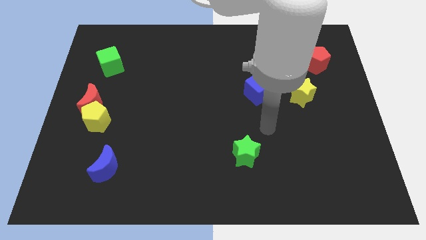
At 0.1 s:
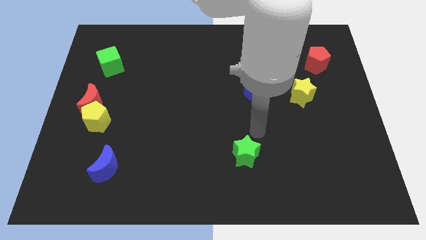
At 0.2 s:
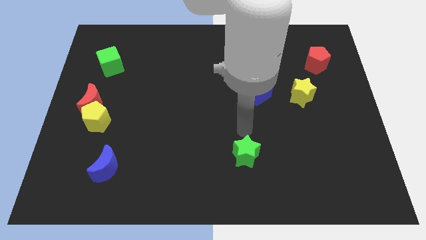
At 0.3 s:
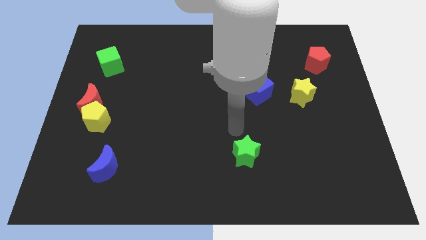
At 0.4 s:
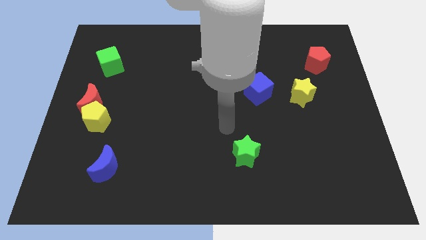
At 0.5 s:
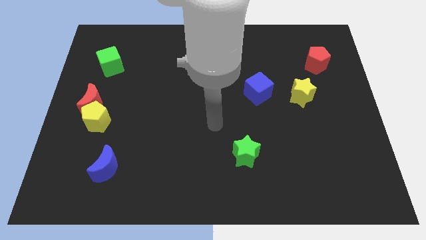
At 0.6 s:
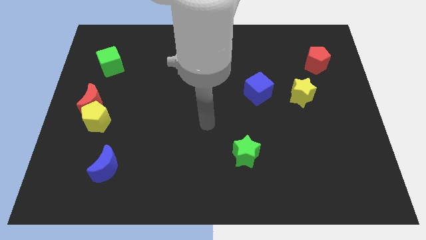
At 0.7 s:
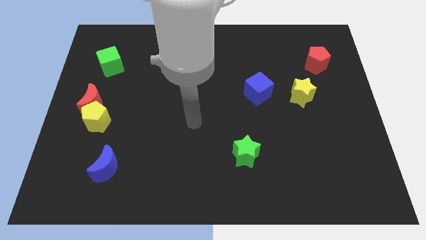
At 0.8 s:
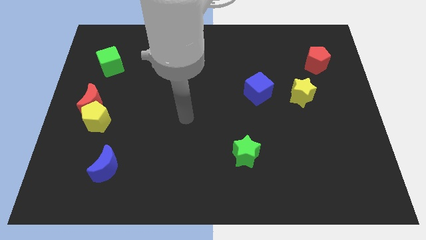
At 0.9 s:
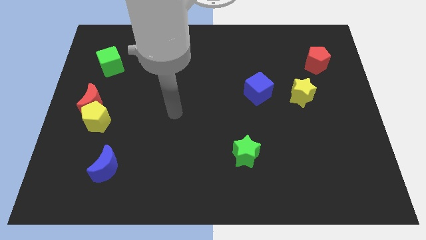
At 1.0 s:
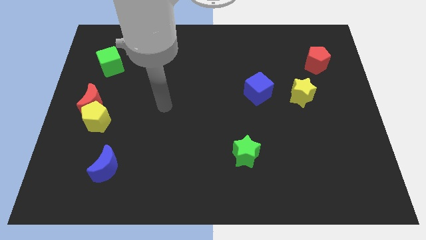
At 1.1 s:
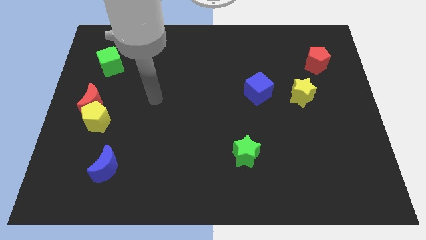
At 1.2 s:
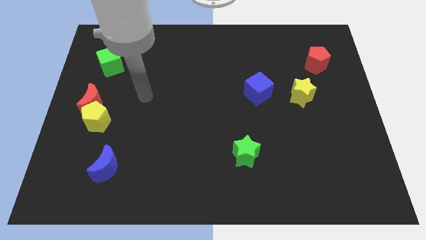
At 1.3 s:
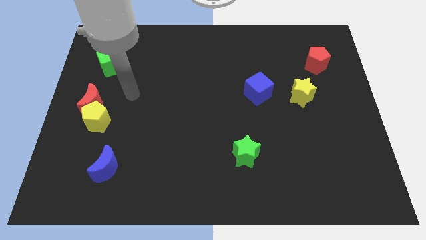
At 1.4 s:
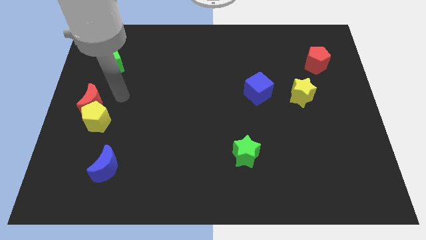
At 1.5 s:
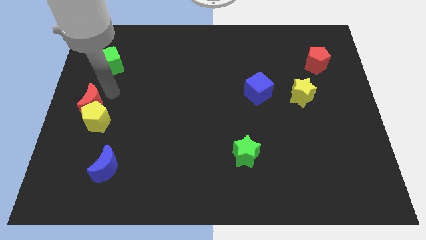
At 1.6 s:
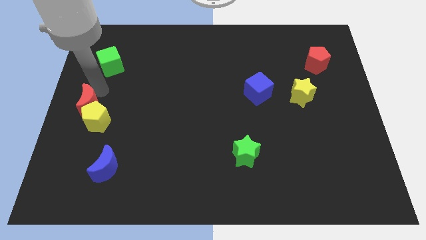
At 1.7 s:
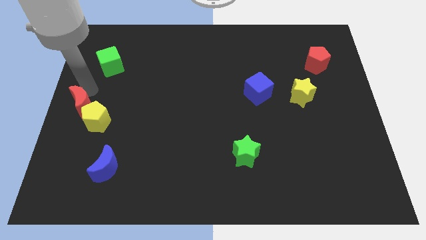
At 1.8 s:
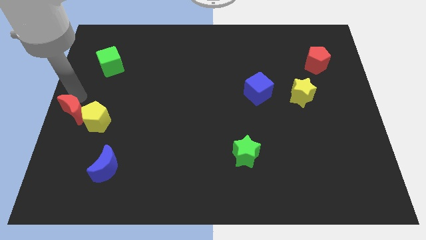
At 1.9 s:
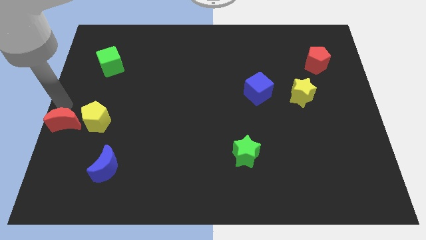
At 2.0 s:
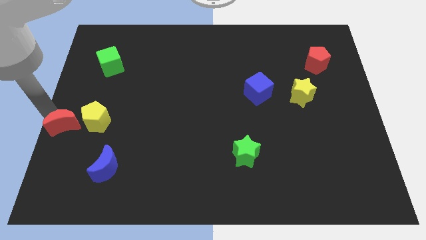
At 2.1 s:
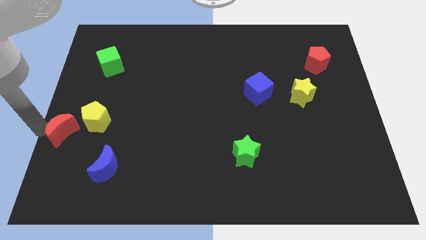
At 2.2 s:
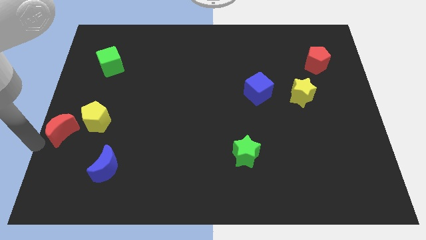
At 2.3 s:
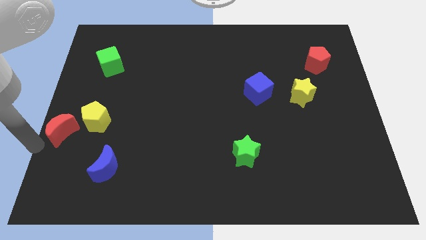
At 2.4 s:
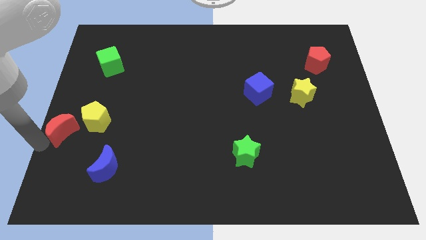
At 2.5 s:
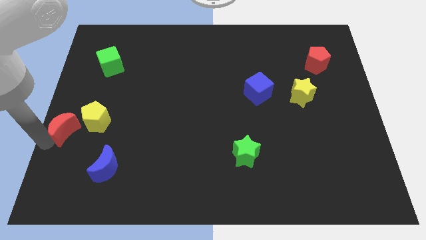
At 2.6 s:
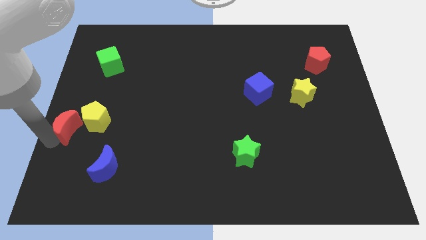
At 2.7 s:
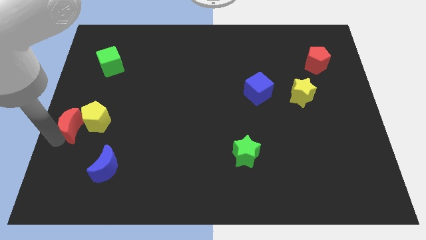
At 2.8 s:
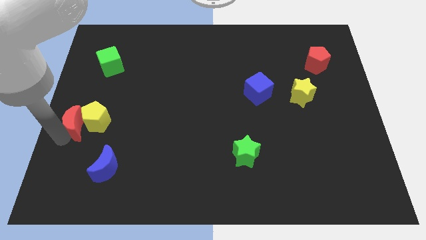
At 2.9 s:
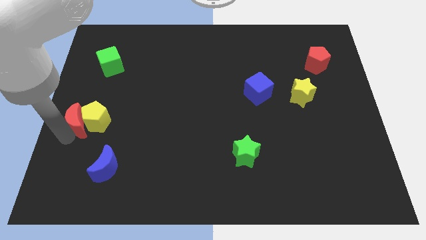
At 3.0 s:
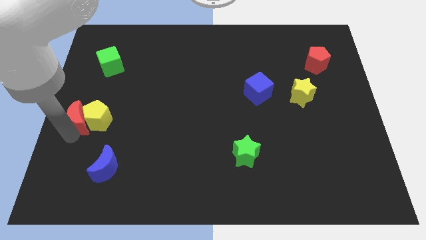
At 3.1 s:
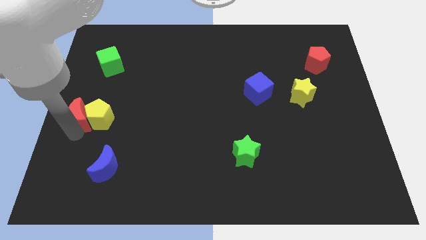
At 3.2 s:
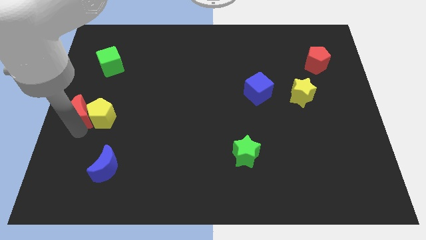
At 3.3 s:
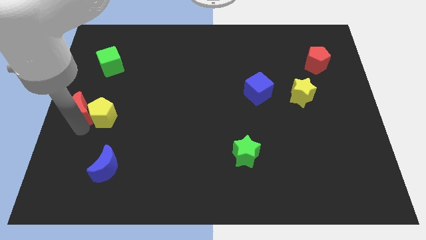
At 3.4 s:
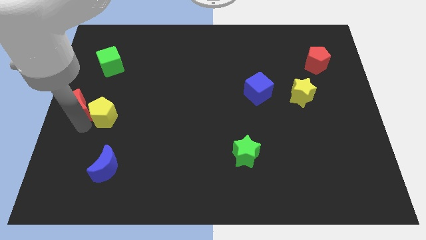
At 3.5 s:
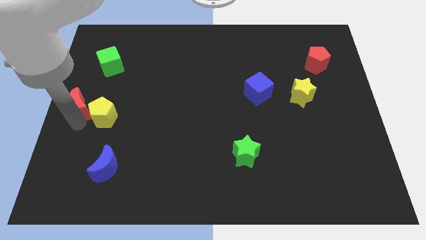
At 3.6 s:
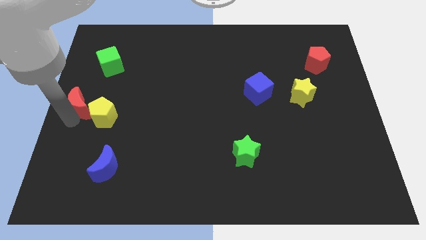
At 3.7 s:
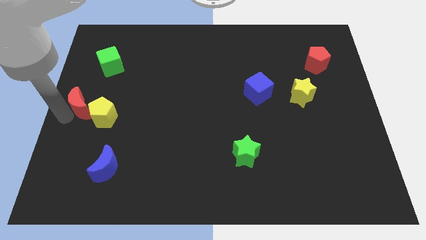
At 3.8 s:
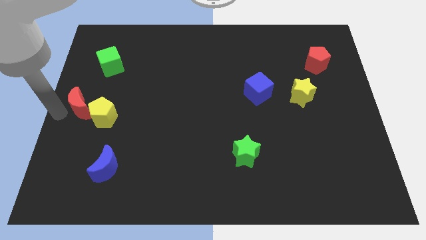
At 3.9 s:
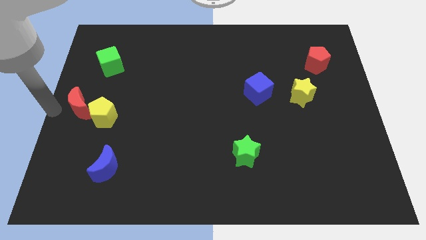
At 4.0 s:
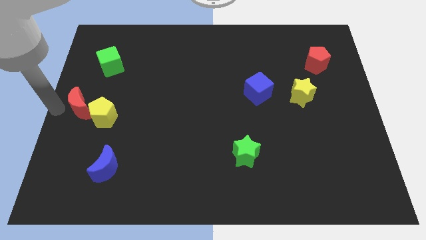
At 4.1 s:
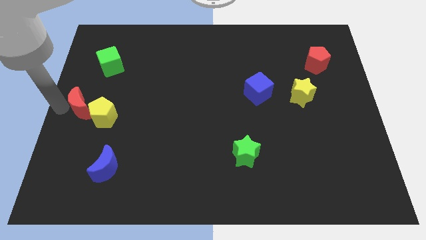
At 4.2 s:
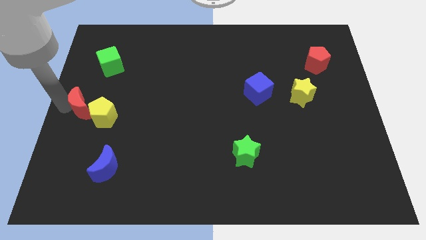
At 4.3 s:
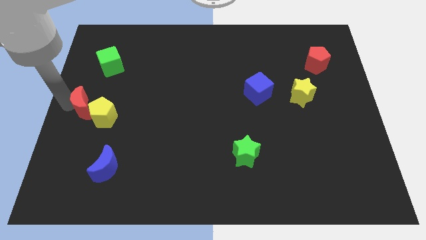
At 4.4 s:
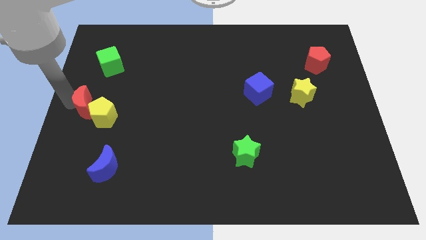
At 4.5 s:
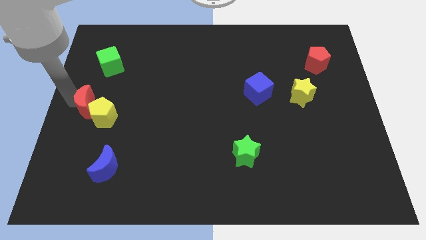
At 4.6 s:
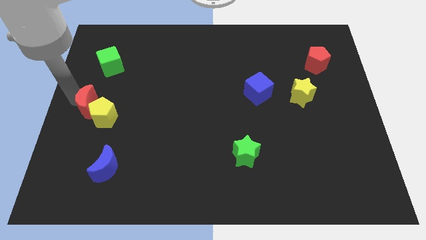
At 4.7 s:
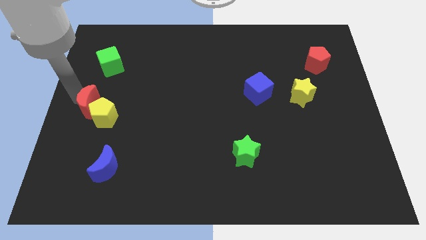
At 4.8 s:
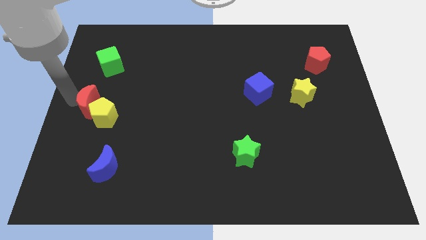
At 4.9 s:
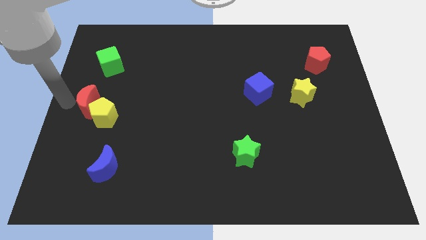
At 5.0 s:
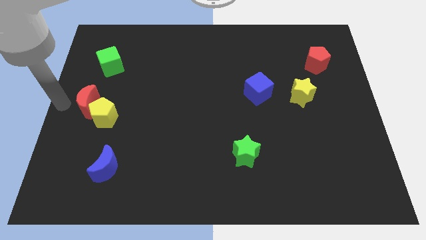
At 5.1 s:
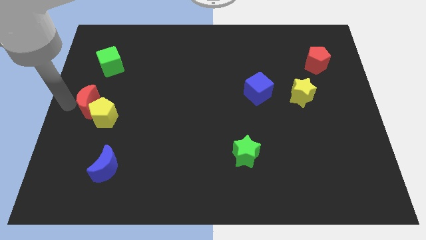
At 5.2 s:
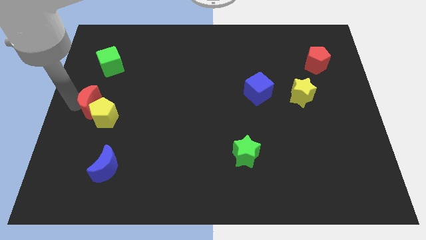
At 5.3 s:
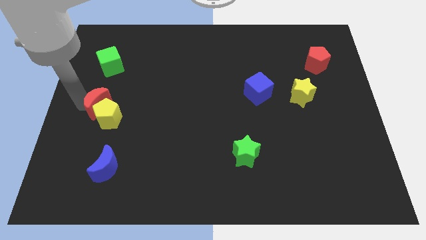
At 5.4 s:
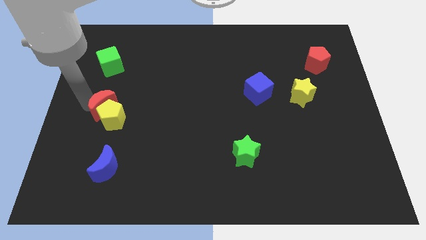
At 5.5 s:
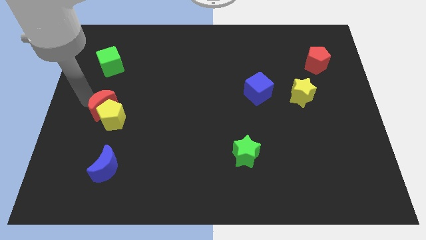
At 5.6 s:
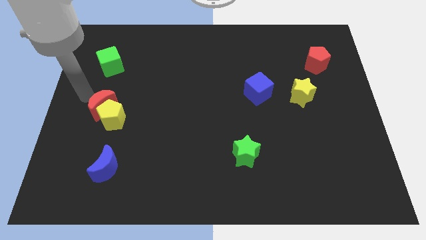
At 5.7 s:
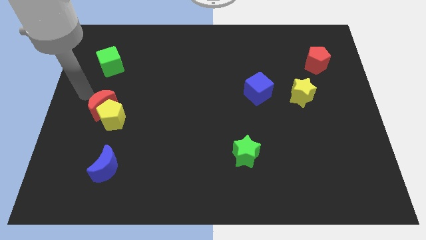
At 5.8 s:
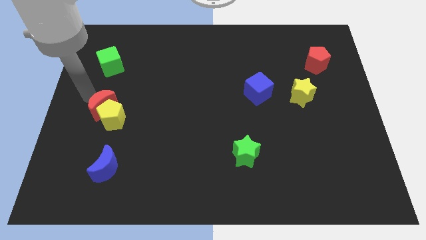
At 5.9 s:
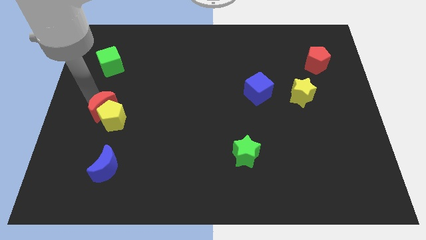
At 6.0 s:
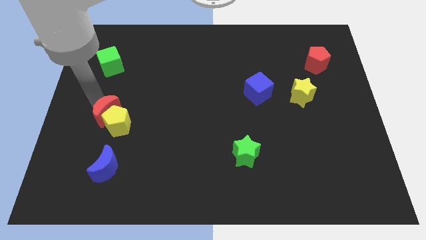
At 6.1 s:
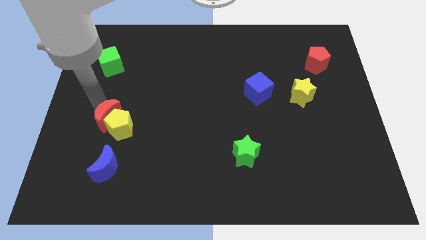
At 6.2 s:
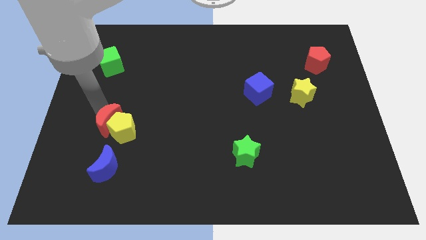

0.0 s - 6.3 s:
push the red moon downwards and then to the right a little

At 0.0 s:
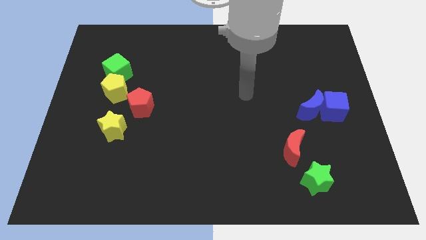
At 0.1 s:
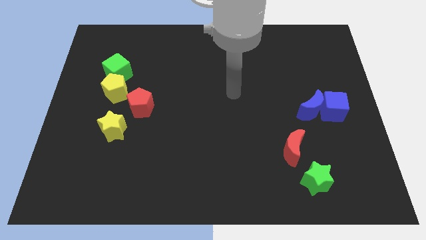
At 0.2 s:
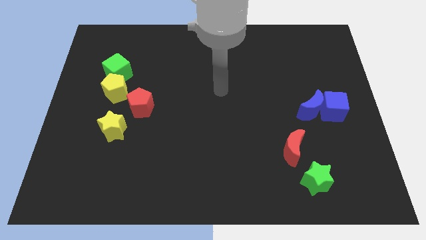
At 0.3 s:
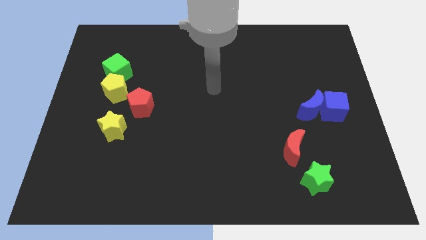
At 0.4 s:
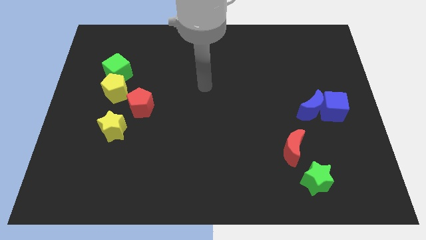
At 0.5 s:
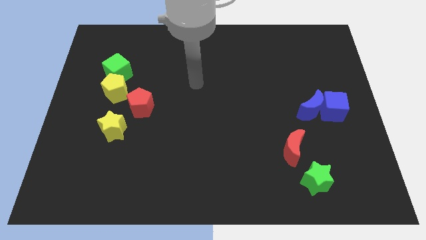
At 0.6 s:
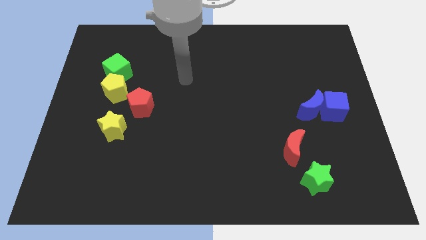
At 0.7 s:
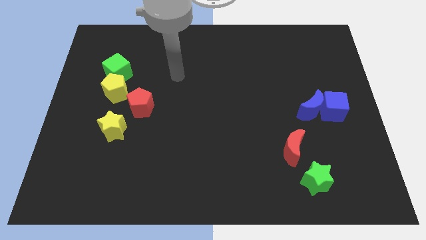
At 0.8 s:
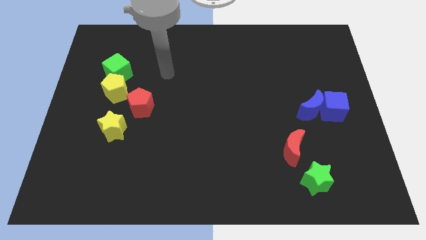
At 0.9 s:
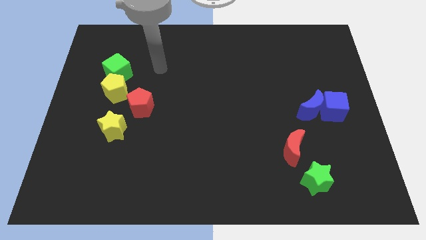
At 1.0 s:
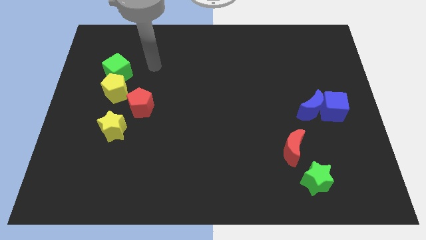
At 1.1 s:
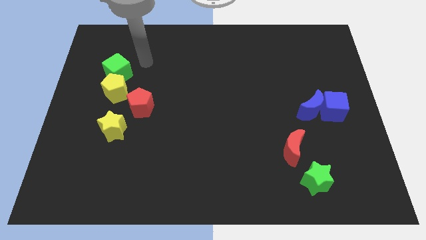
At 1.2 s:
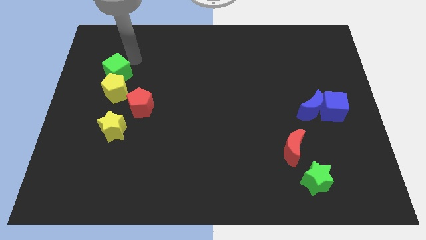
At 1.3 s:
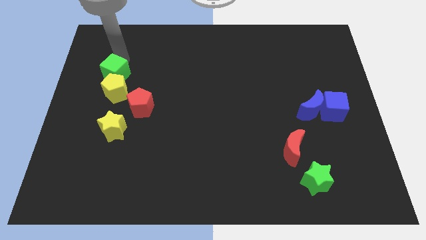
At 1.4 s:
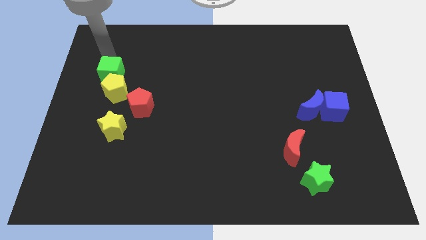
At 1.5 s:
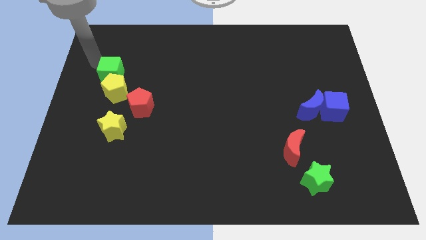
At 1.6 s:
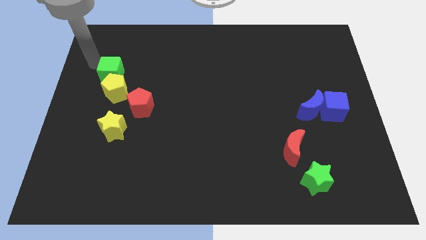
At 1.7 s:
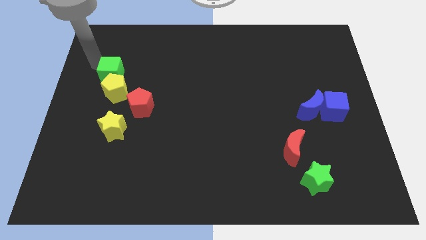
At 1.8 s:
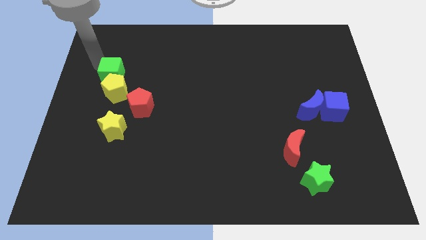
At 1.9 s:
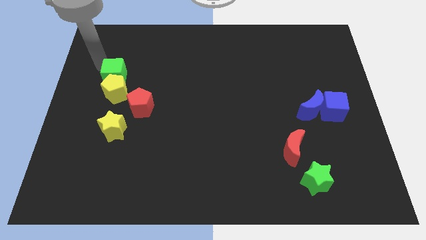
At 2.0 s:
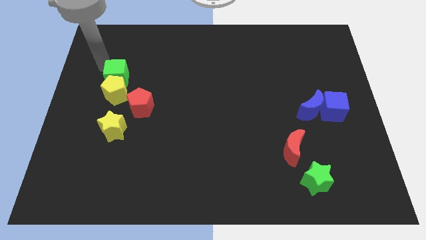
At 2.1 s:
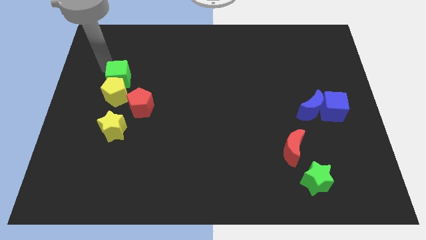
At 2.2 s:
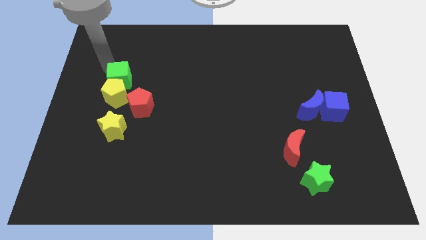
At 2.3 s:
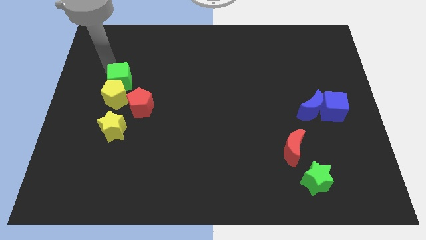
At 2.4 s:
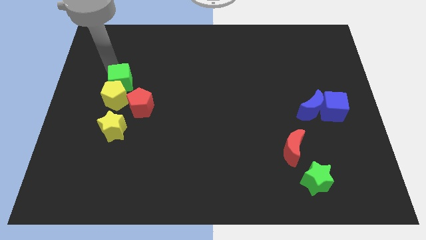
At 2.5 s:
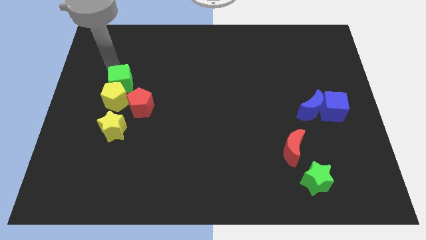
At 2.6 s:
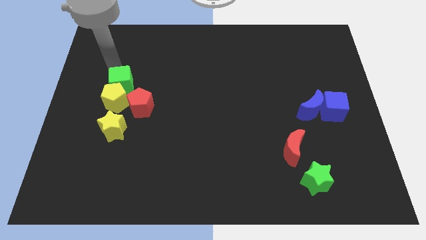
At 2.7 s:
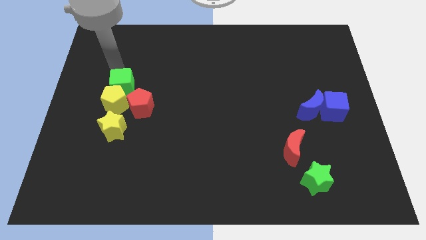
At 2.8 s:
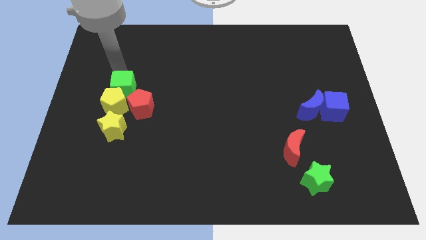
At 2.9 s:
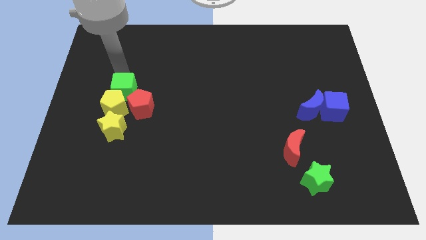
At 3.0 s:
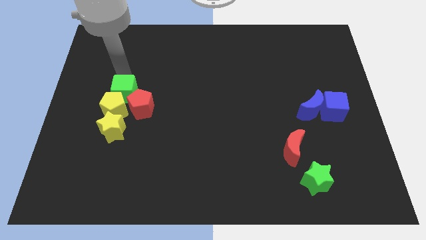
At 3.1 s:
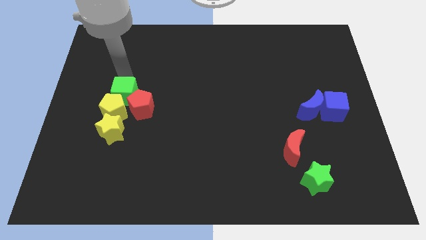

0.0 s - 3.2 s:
slide the green cube downwards and to the right diagonally slightly
